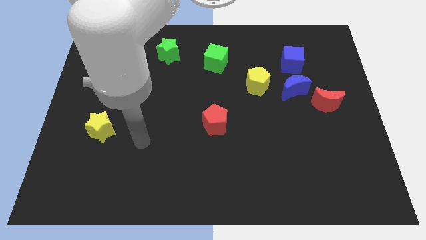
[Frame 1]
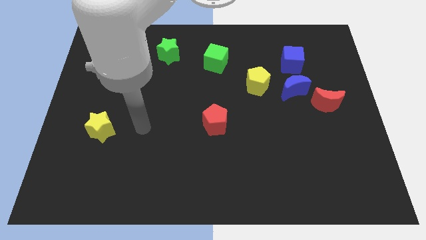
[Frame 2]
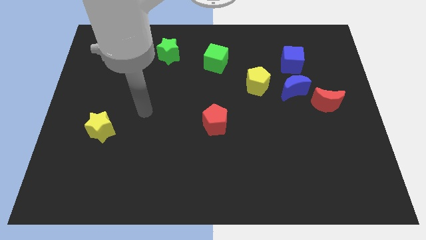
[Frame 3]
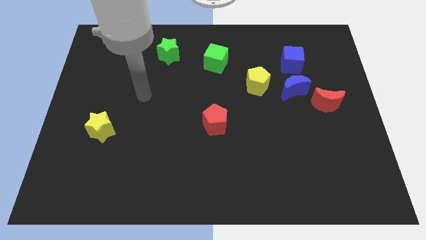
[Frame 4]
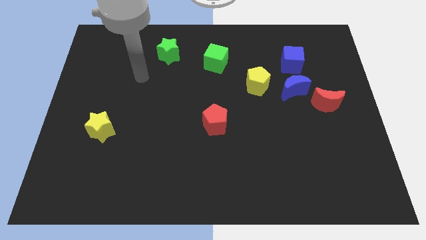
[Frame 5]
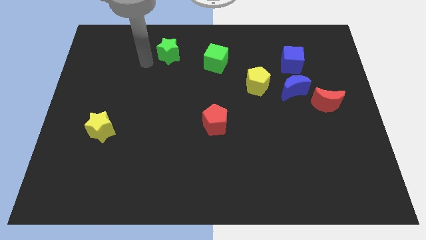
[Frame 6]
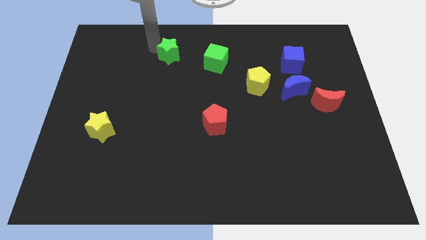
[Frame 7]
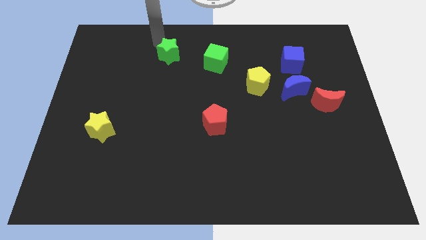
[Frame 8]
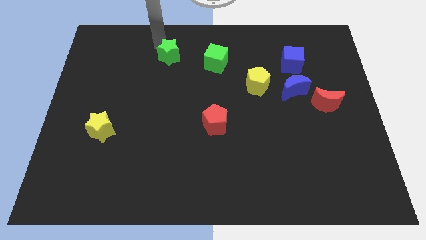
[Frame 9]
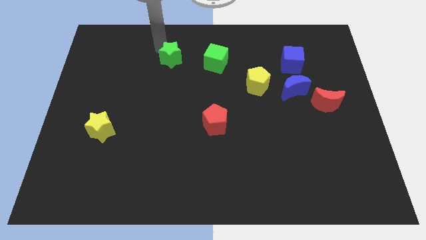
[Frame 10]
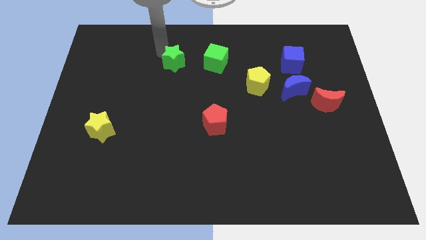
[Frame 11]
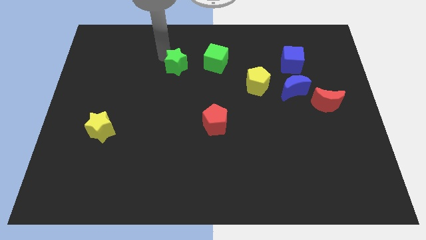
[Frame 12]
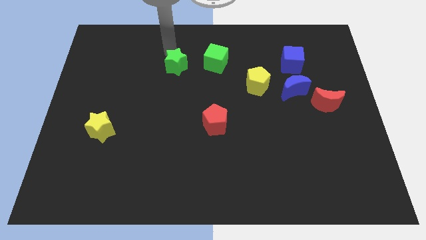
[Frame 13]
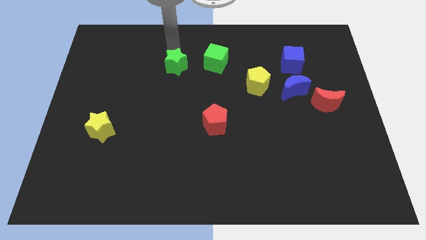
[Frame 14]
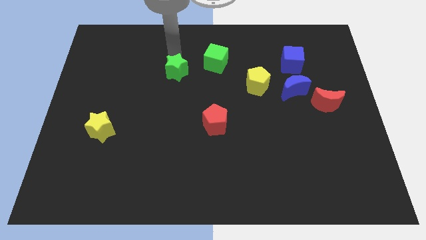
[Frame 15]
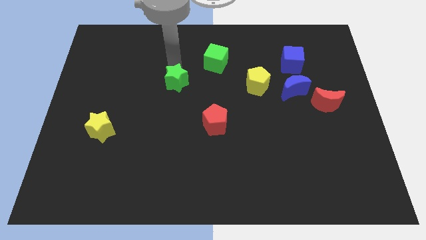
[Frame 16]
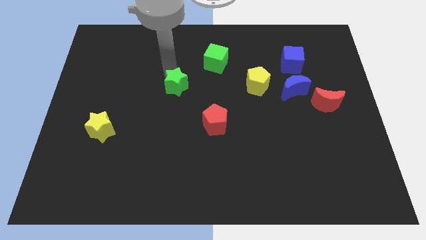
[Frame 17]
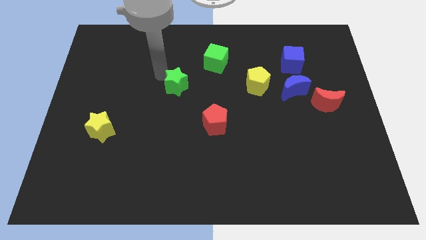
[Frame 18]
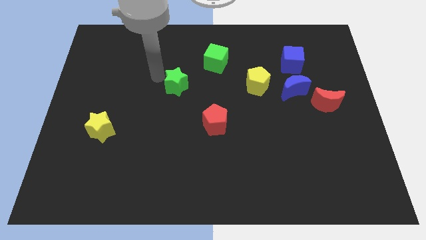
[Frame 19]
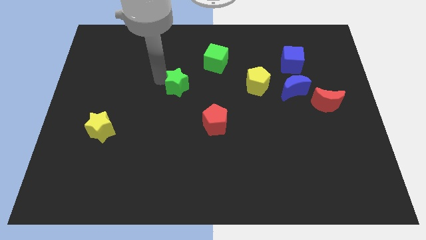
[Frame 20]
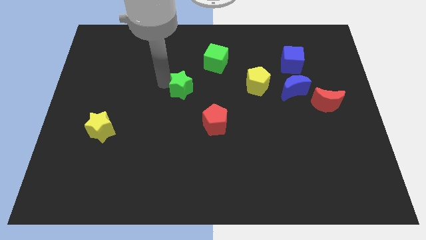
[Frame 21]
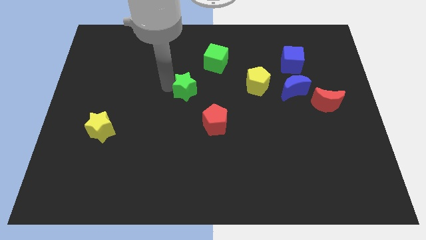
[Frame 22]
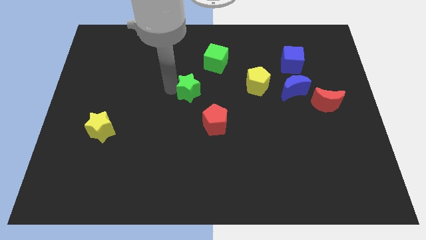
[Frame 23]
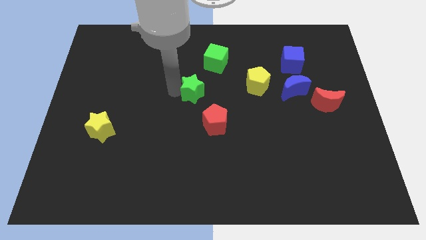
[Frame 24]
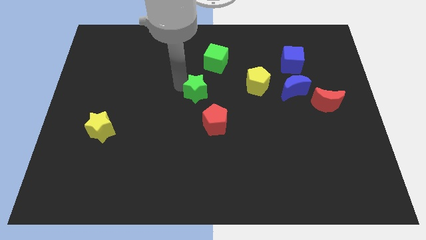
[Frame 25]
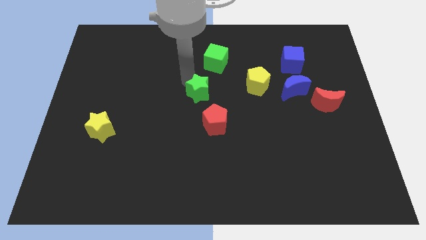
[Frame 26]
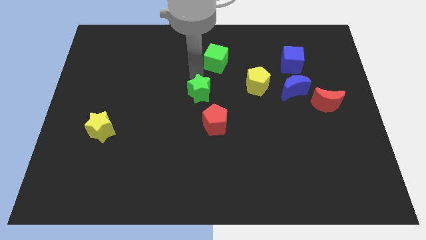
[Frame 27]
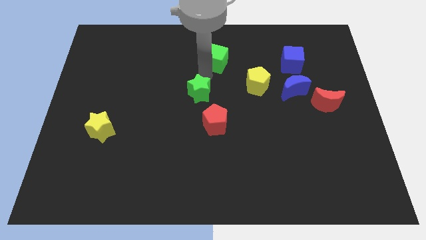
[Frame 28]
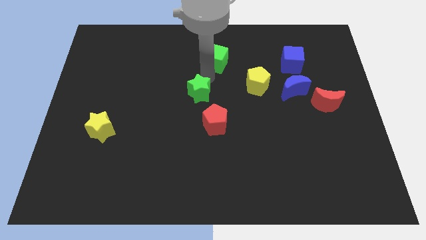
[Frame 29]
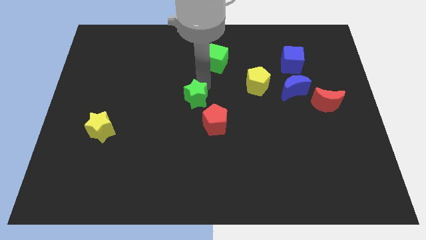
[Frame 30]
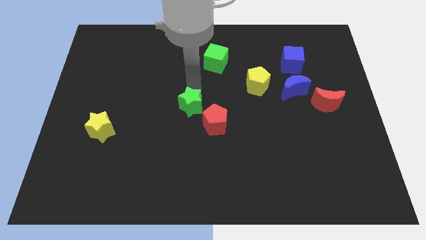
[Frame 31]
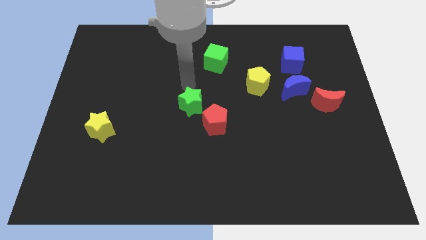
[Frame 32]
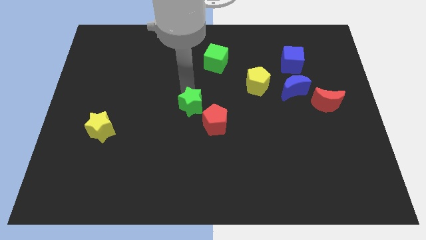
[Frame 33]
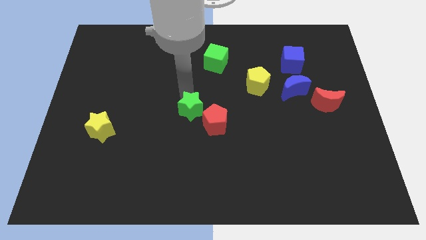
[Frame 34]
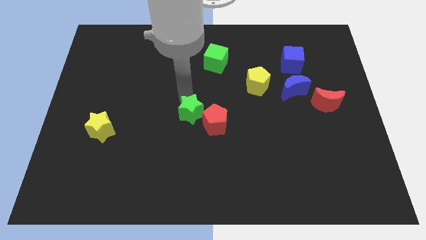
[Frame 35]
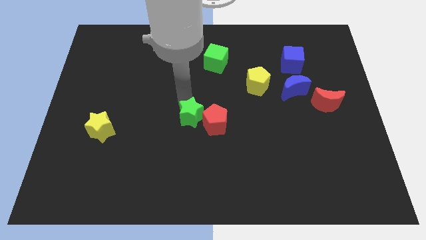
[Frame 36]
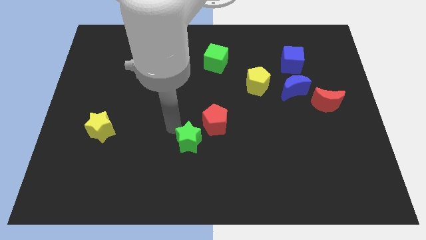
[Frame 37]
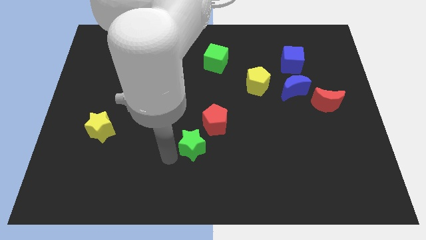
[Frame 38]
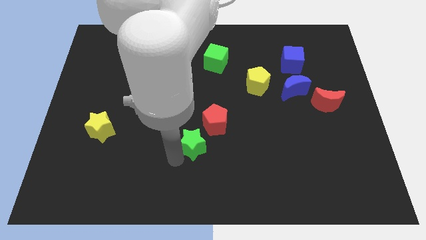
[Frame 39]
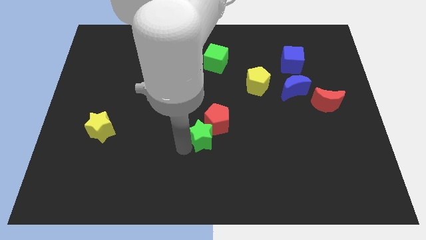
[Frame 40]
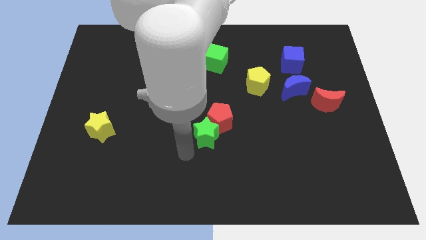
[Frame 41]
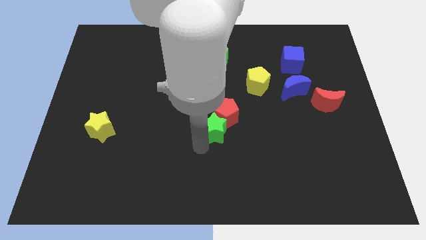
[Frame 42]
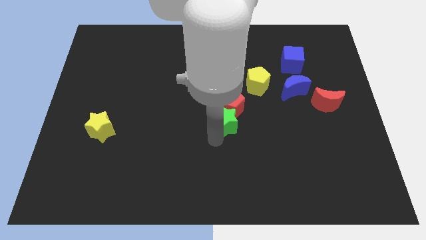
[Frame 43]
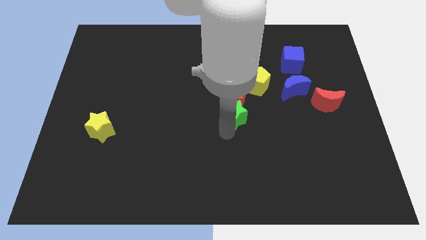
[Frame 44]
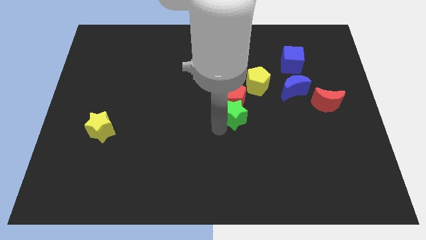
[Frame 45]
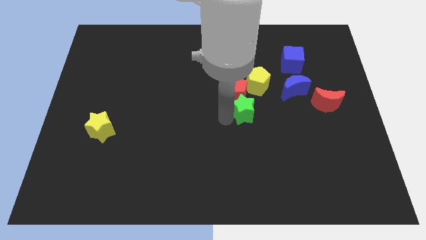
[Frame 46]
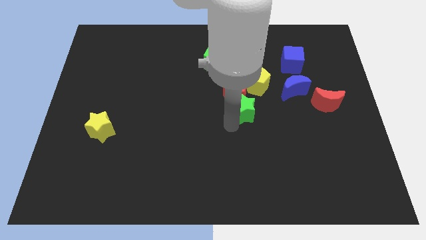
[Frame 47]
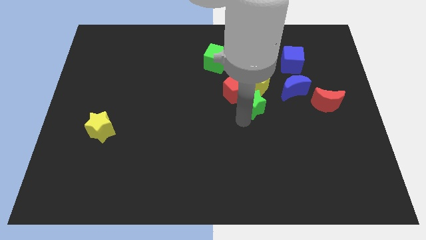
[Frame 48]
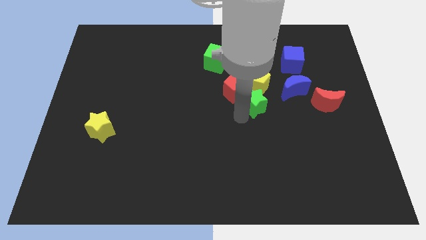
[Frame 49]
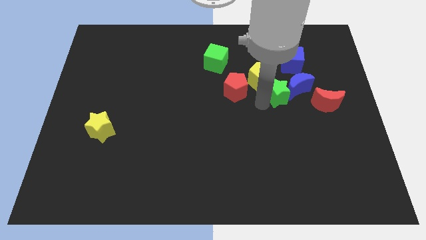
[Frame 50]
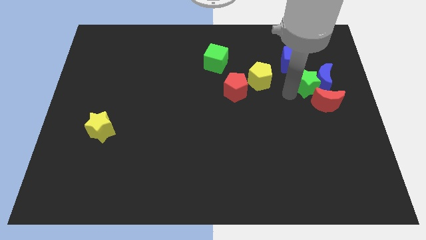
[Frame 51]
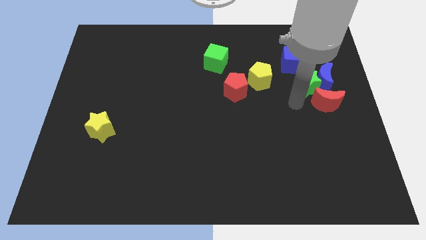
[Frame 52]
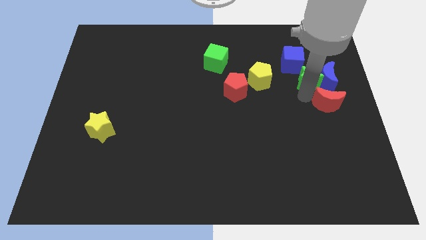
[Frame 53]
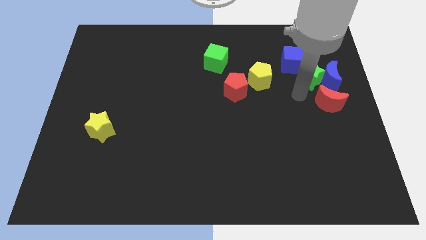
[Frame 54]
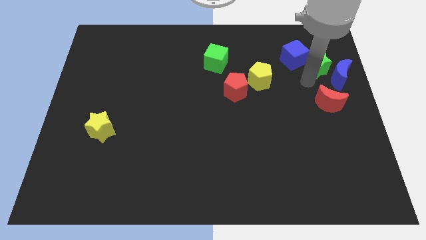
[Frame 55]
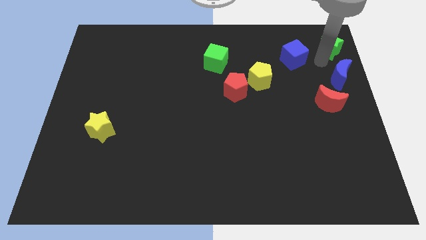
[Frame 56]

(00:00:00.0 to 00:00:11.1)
move the green star to the top right
